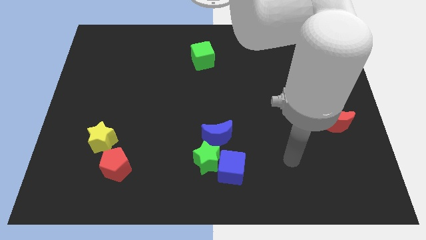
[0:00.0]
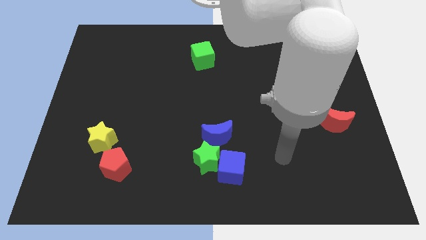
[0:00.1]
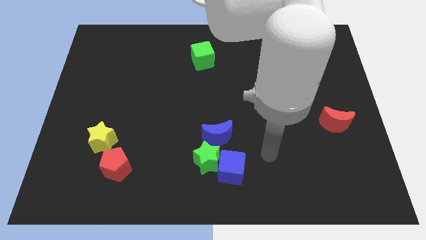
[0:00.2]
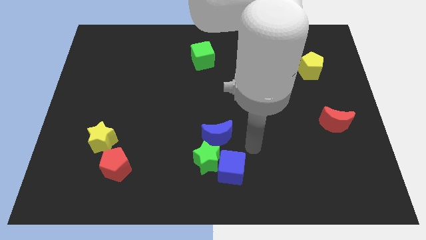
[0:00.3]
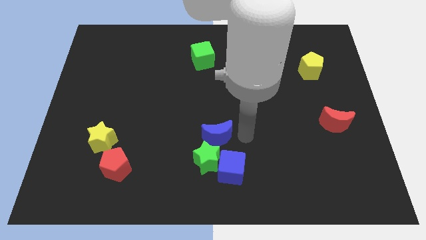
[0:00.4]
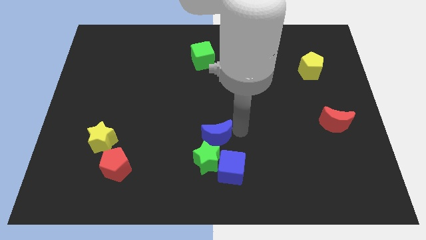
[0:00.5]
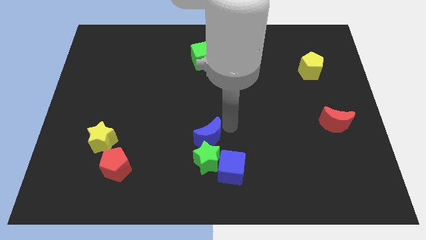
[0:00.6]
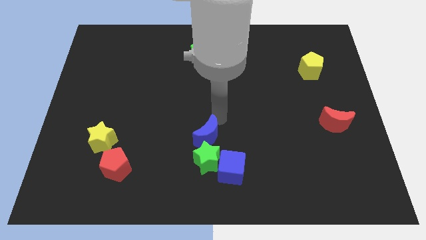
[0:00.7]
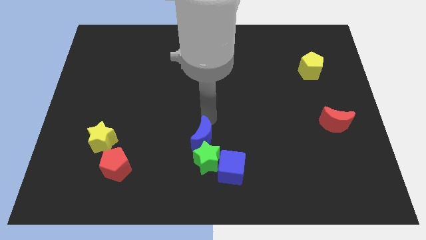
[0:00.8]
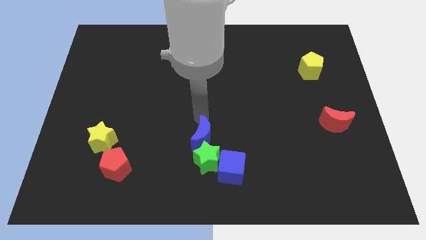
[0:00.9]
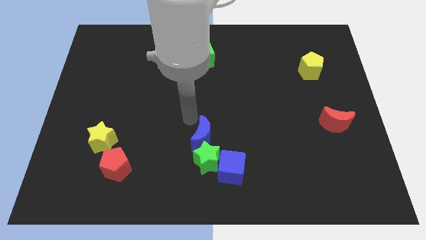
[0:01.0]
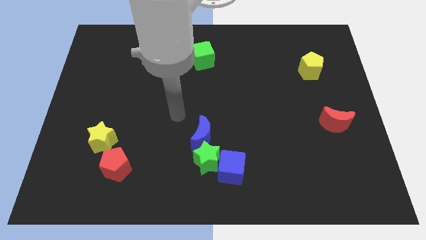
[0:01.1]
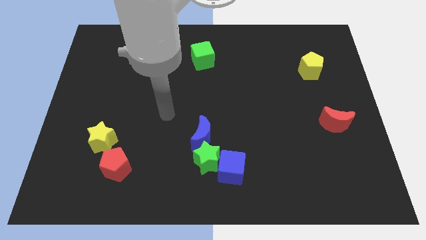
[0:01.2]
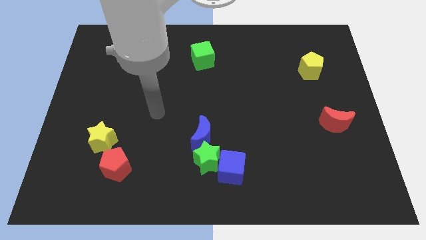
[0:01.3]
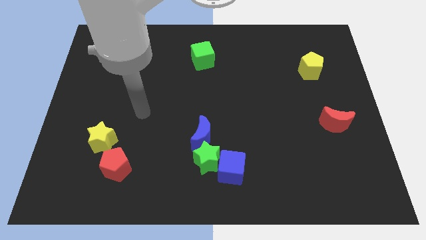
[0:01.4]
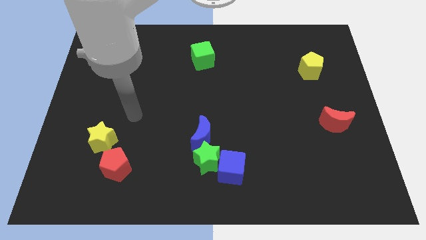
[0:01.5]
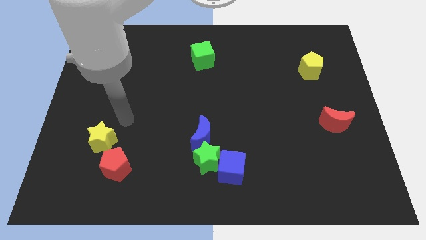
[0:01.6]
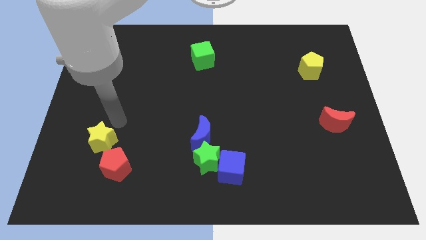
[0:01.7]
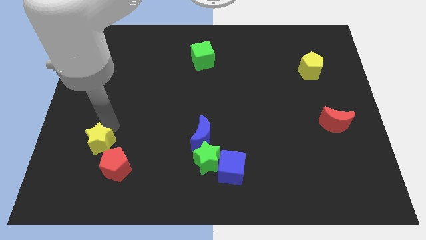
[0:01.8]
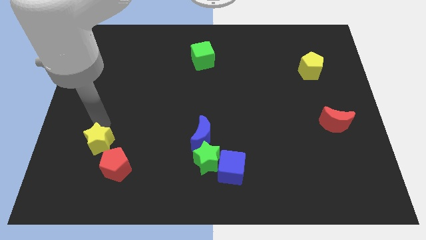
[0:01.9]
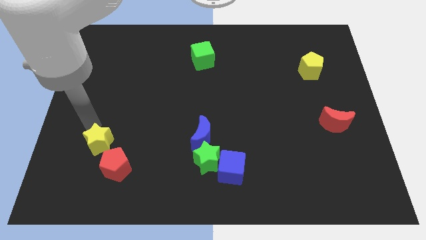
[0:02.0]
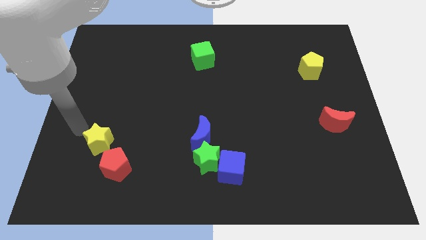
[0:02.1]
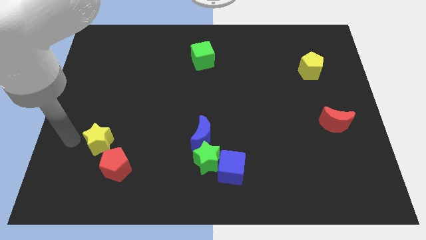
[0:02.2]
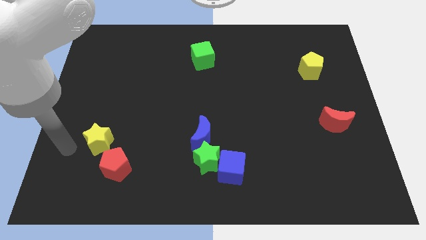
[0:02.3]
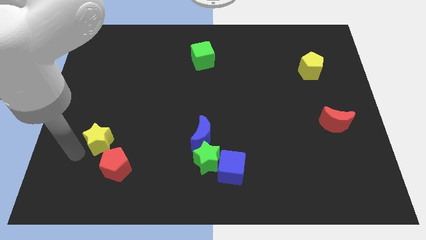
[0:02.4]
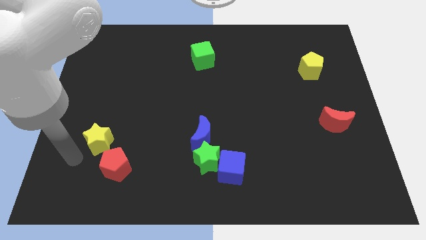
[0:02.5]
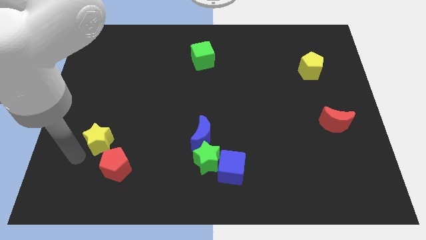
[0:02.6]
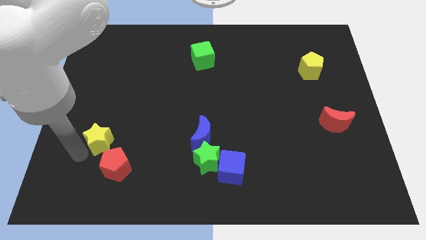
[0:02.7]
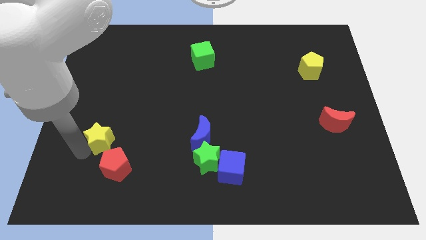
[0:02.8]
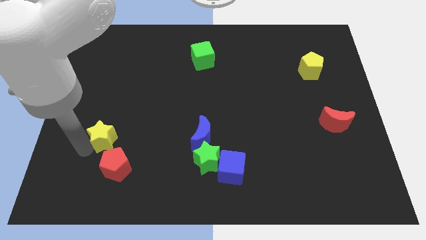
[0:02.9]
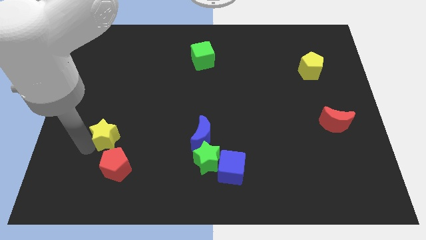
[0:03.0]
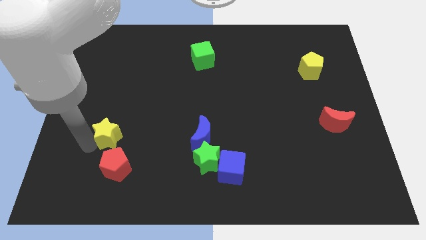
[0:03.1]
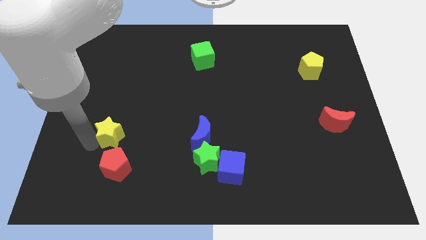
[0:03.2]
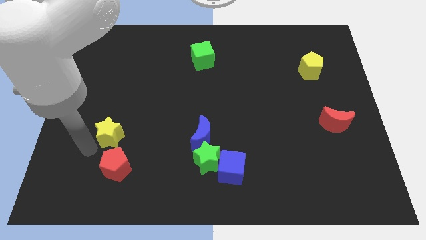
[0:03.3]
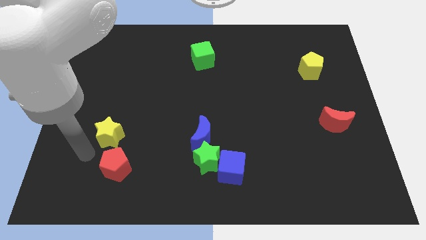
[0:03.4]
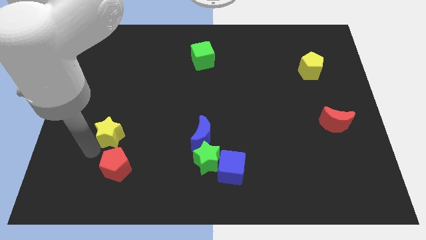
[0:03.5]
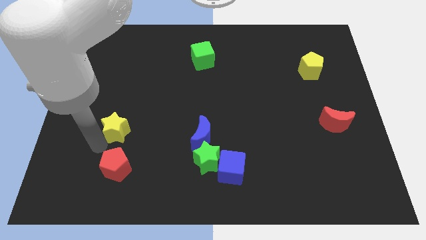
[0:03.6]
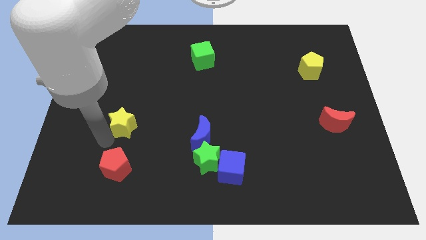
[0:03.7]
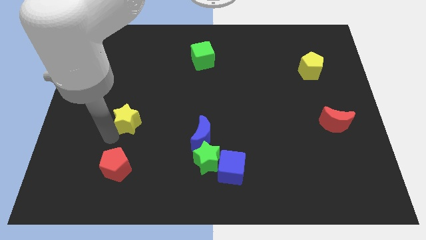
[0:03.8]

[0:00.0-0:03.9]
slide the yellow star upwards and to the right a little bit

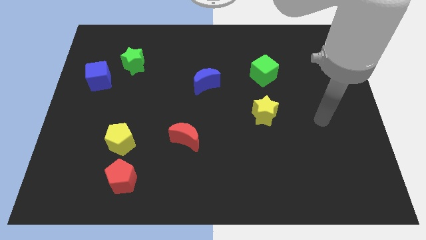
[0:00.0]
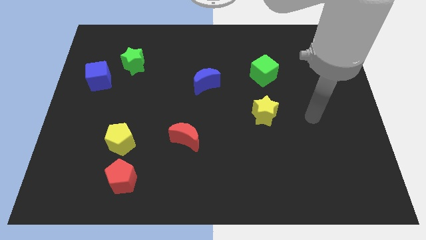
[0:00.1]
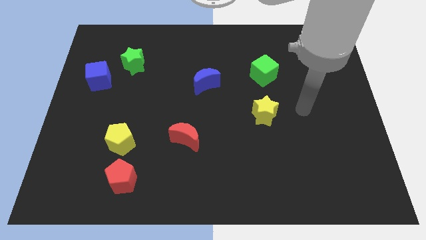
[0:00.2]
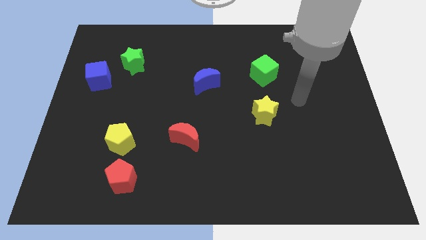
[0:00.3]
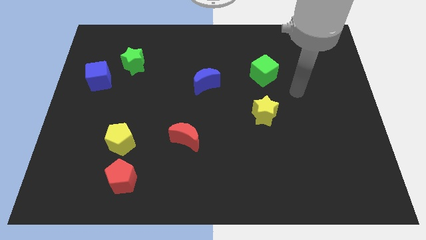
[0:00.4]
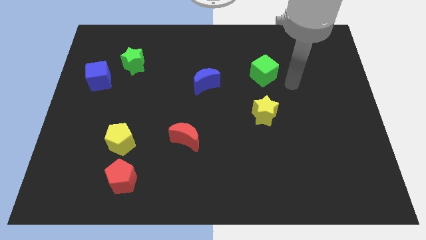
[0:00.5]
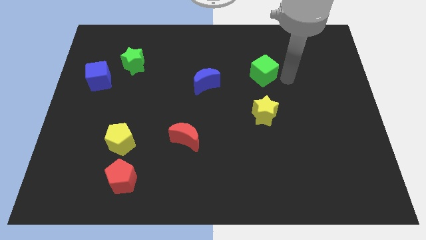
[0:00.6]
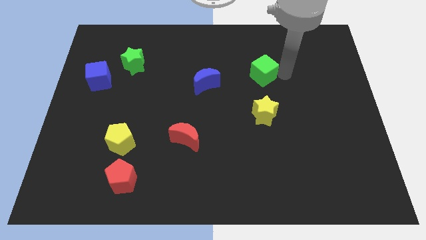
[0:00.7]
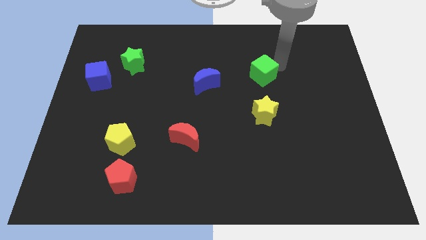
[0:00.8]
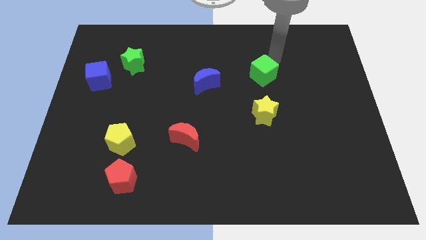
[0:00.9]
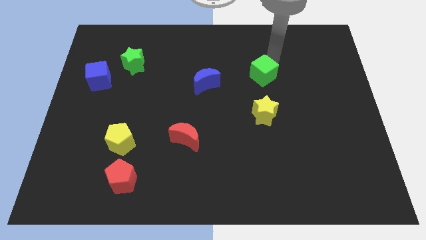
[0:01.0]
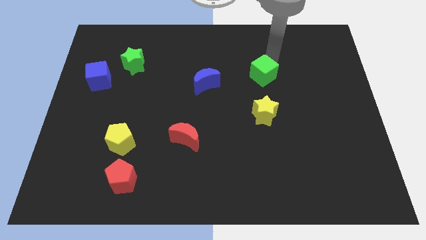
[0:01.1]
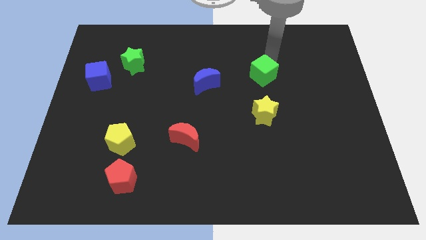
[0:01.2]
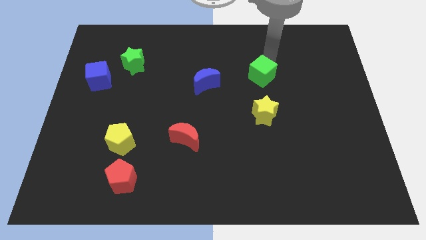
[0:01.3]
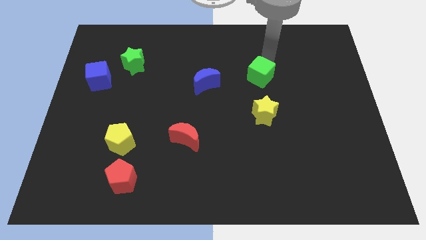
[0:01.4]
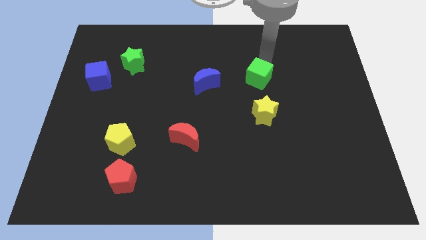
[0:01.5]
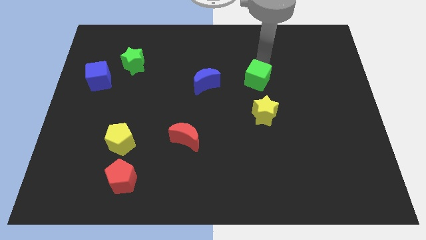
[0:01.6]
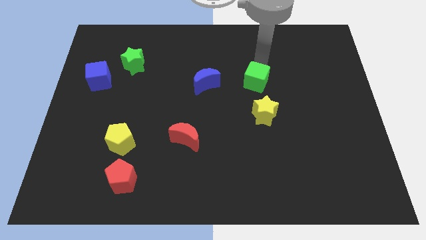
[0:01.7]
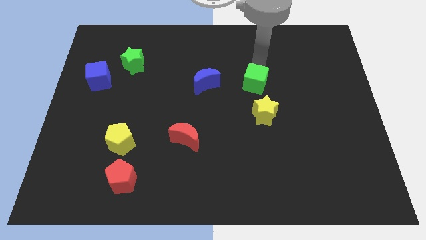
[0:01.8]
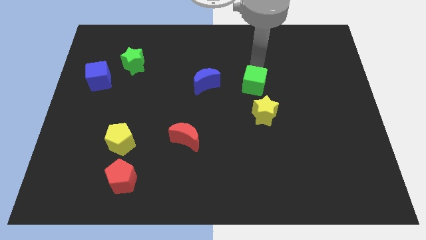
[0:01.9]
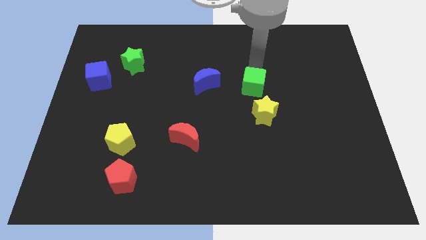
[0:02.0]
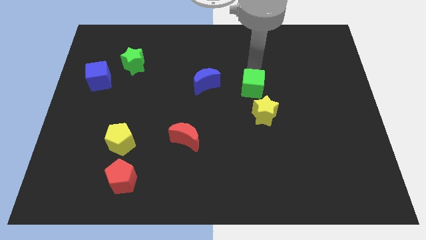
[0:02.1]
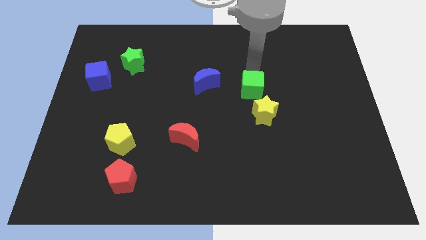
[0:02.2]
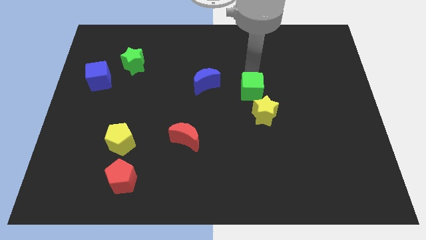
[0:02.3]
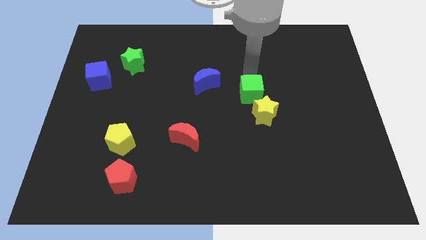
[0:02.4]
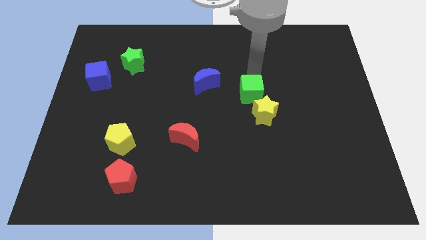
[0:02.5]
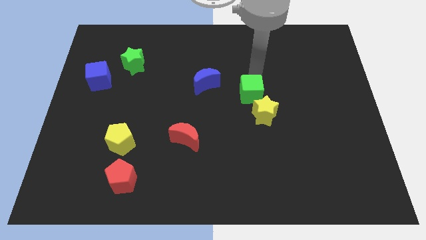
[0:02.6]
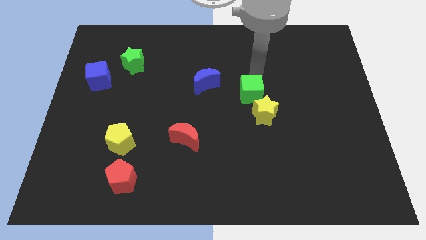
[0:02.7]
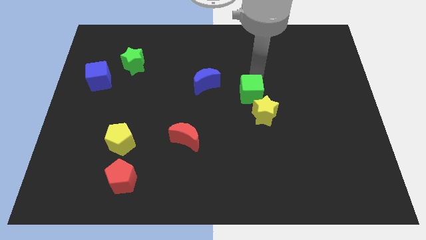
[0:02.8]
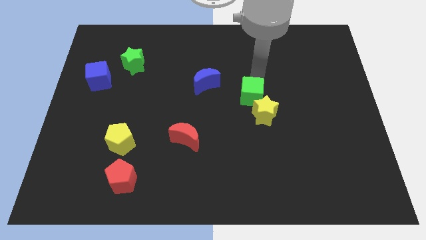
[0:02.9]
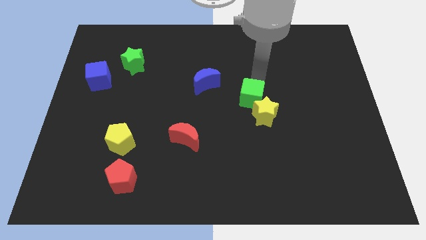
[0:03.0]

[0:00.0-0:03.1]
move the green cube downwards somewhat

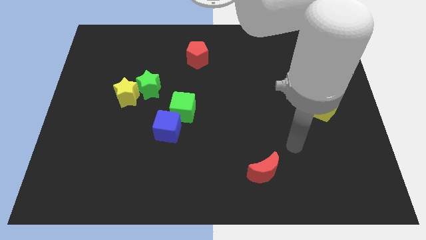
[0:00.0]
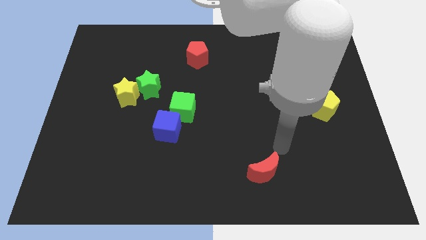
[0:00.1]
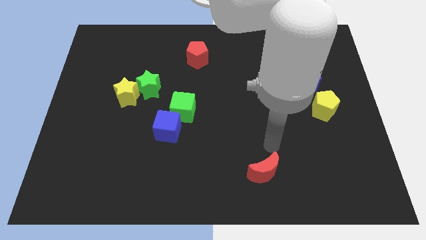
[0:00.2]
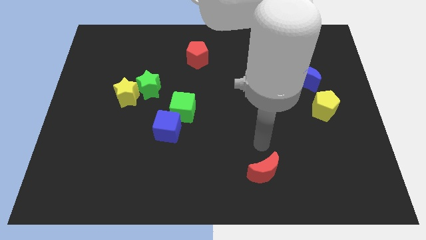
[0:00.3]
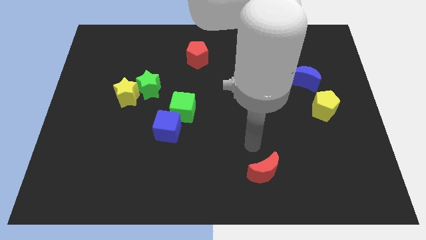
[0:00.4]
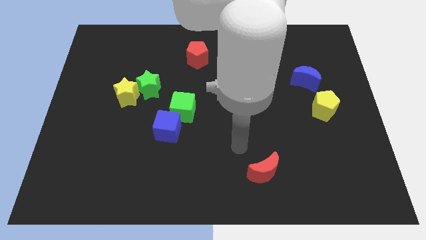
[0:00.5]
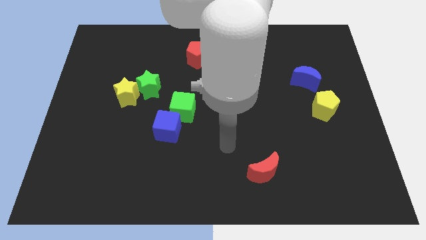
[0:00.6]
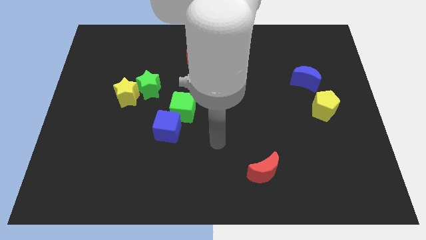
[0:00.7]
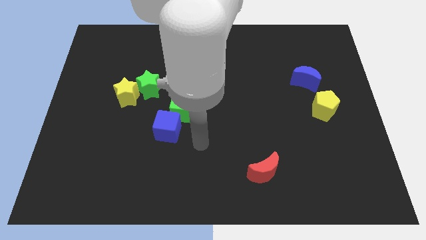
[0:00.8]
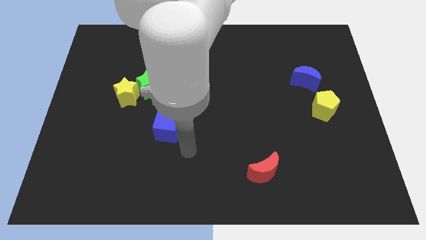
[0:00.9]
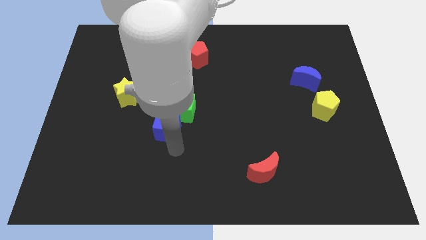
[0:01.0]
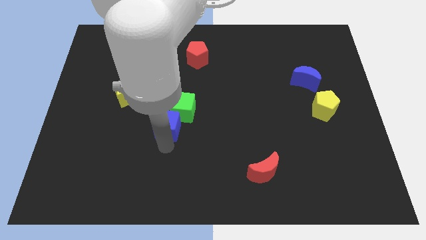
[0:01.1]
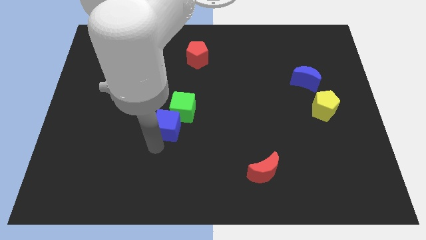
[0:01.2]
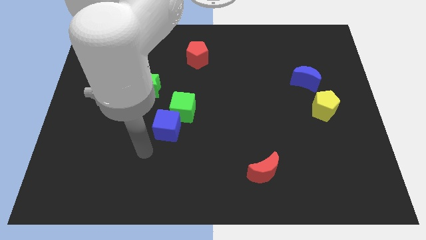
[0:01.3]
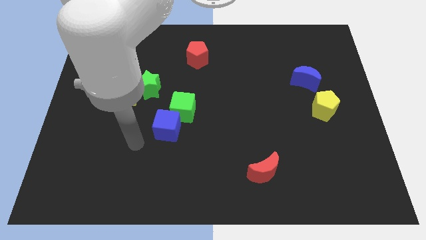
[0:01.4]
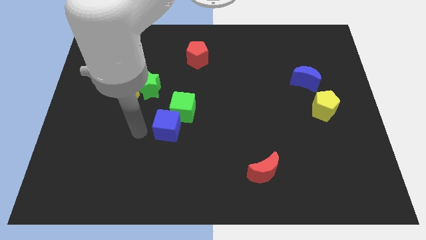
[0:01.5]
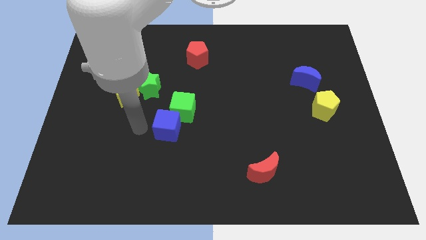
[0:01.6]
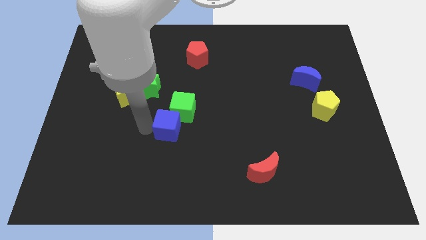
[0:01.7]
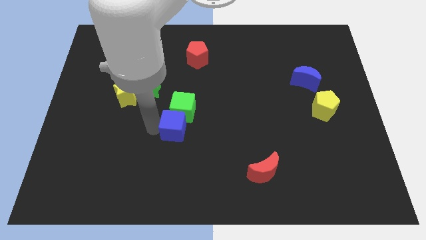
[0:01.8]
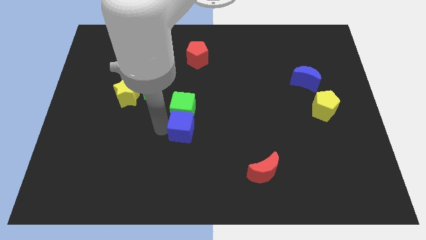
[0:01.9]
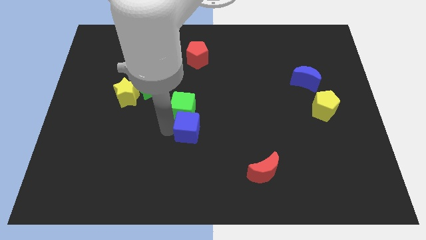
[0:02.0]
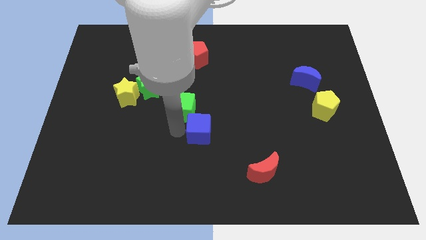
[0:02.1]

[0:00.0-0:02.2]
push the blue cube right slightly
